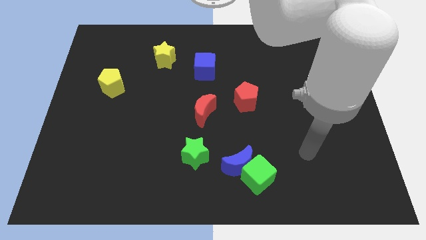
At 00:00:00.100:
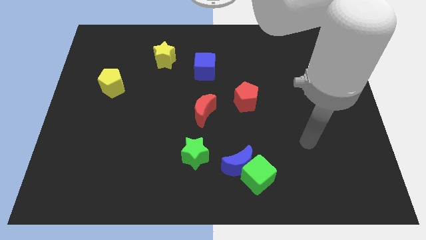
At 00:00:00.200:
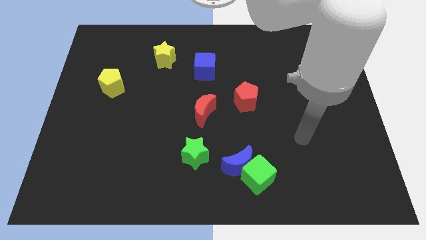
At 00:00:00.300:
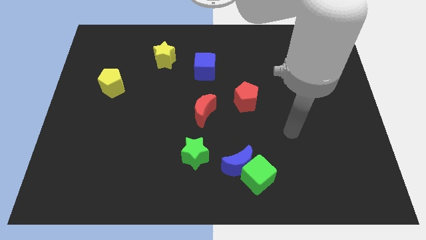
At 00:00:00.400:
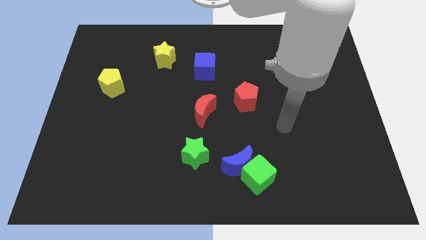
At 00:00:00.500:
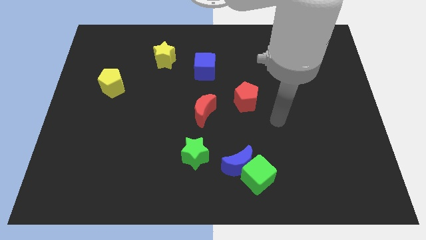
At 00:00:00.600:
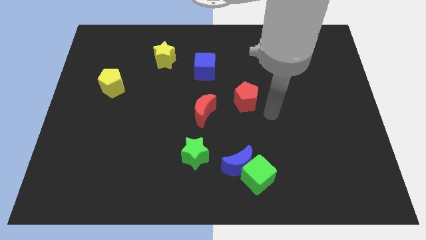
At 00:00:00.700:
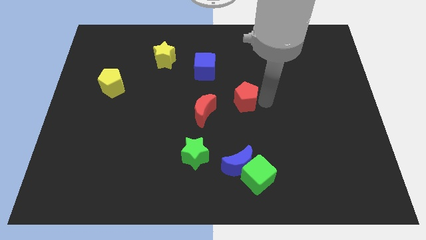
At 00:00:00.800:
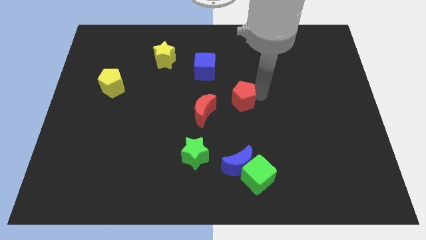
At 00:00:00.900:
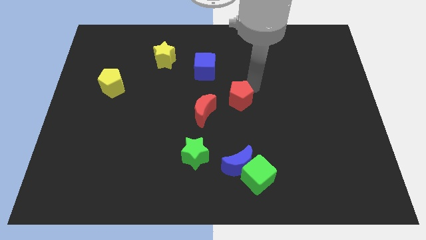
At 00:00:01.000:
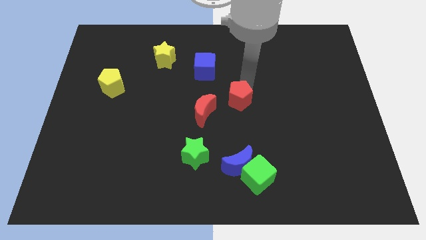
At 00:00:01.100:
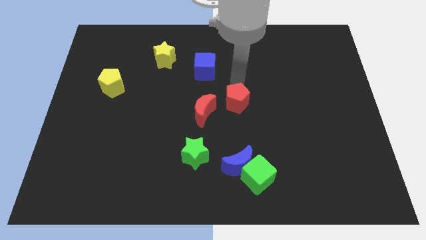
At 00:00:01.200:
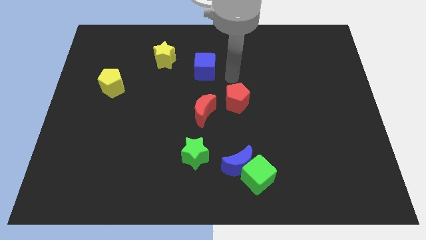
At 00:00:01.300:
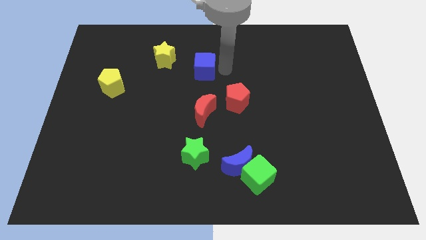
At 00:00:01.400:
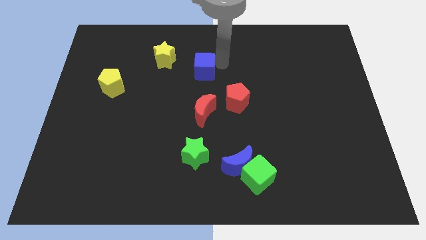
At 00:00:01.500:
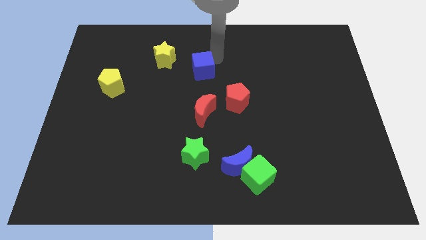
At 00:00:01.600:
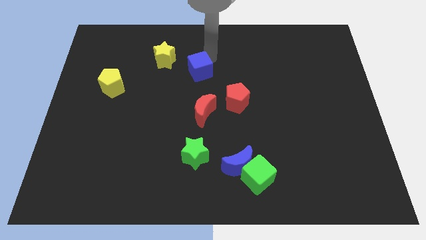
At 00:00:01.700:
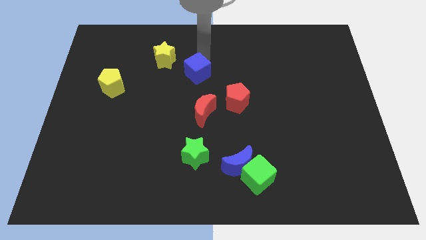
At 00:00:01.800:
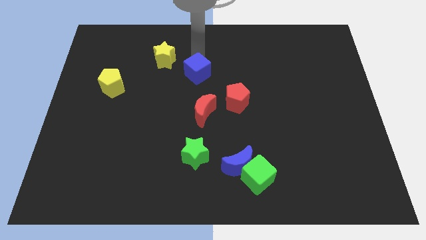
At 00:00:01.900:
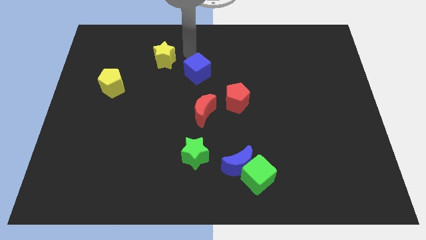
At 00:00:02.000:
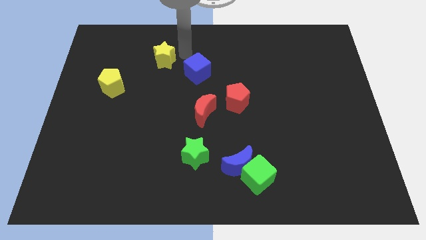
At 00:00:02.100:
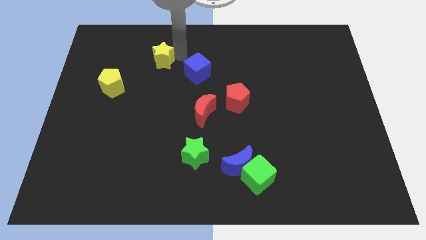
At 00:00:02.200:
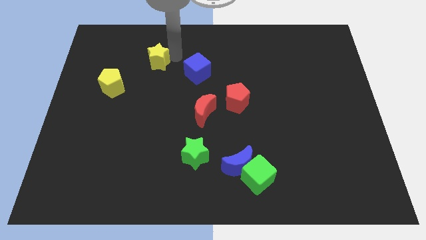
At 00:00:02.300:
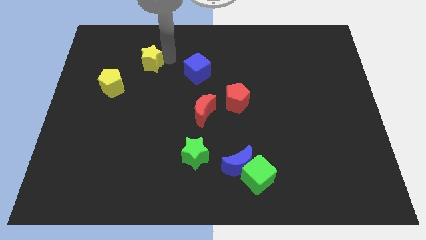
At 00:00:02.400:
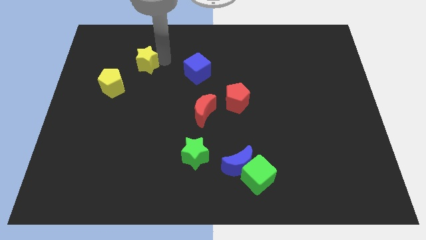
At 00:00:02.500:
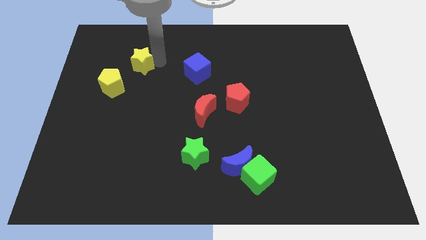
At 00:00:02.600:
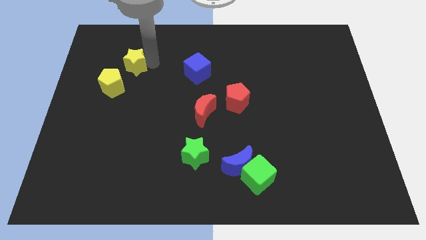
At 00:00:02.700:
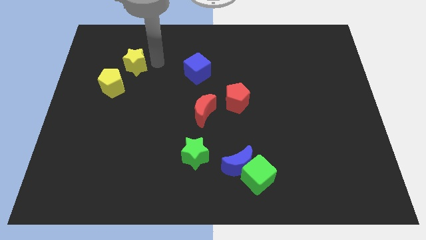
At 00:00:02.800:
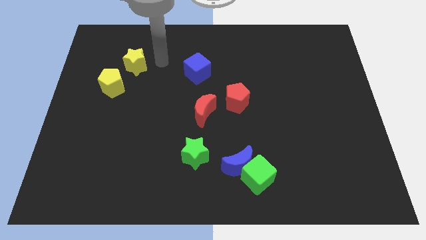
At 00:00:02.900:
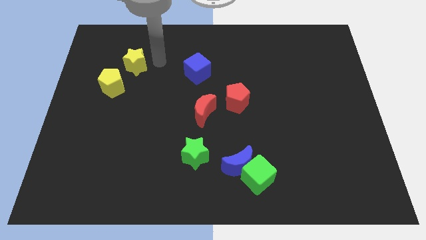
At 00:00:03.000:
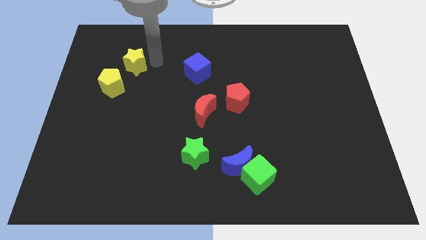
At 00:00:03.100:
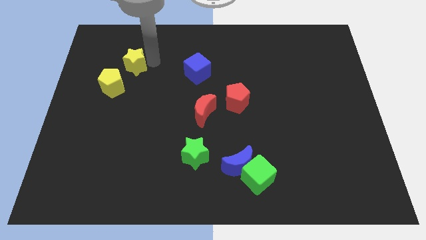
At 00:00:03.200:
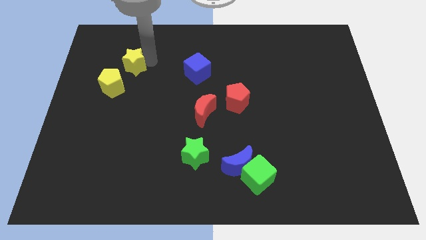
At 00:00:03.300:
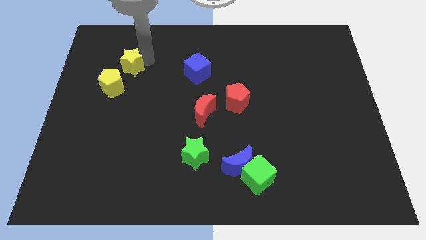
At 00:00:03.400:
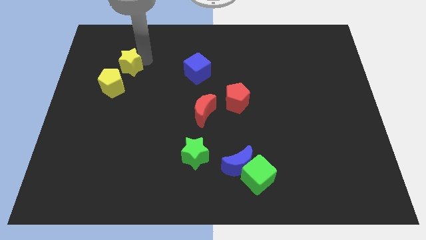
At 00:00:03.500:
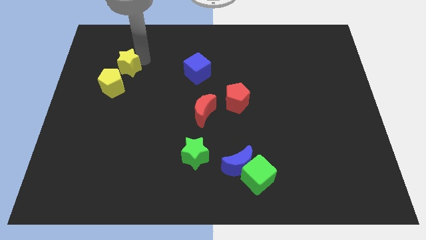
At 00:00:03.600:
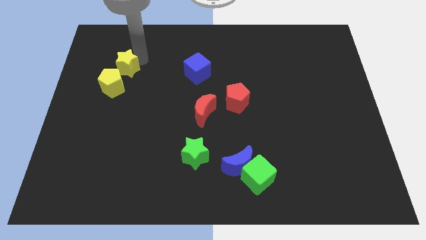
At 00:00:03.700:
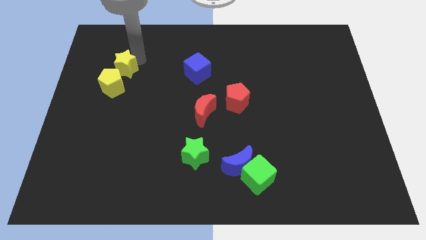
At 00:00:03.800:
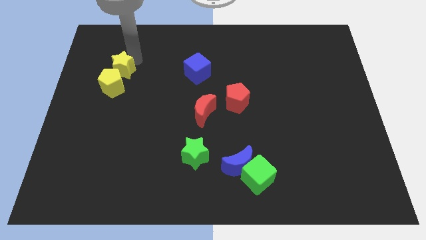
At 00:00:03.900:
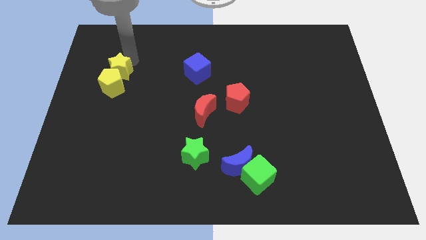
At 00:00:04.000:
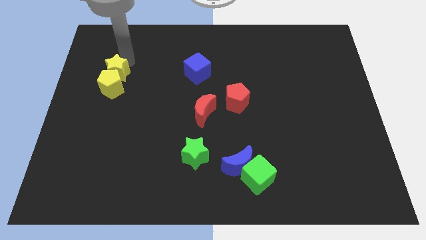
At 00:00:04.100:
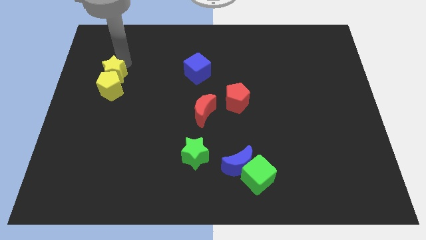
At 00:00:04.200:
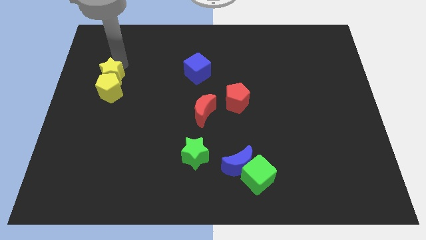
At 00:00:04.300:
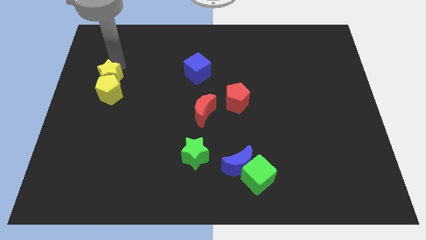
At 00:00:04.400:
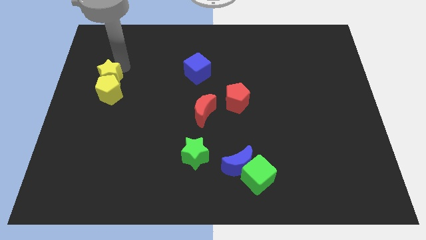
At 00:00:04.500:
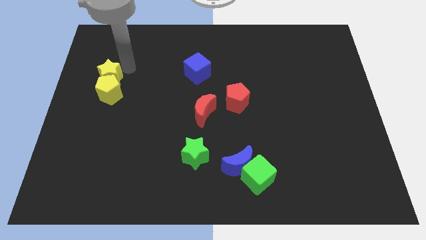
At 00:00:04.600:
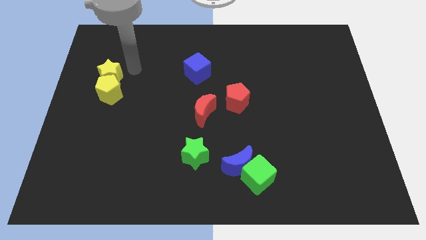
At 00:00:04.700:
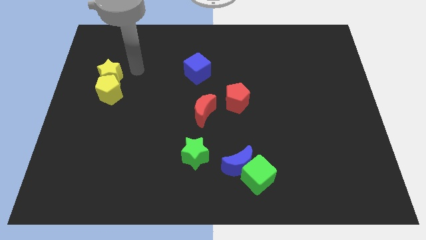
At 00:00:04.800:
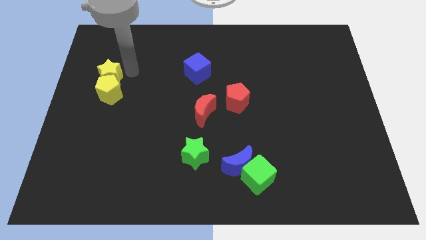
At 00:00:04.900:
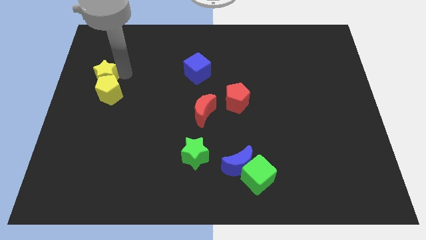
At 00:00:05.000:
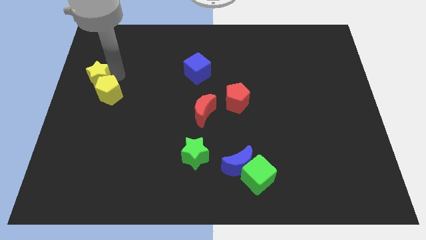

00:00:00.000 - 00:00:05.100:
put the yellow star to the left side of the board

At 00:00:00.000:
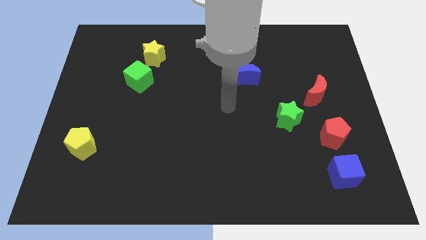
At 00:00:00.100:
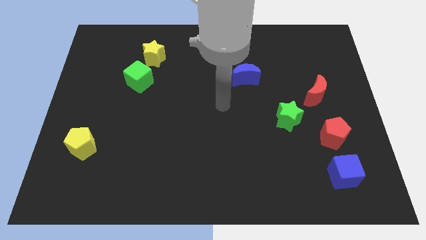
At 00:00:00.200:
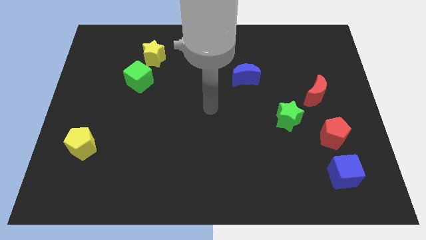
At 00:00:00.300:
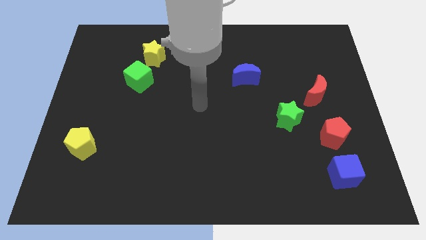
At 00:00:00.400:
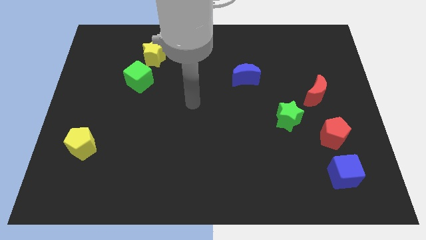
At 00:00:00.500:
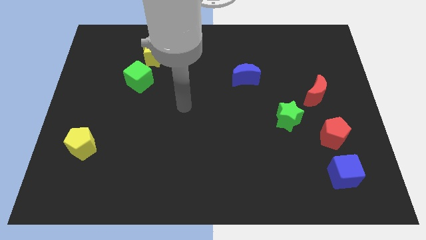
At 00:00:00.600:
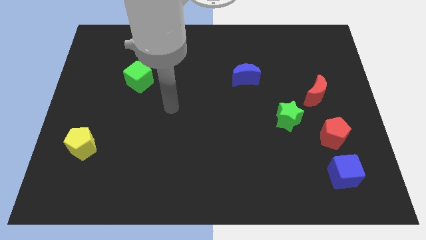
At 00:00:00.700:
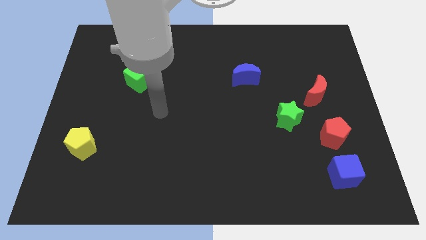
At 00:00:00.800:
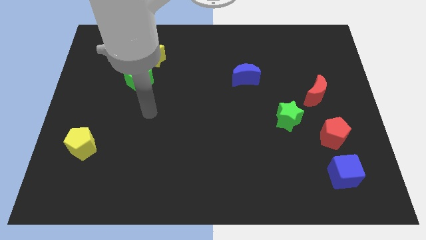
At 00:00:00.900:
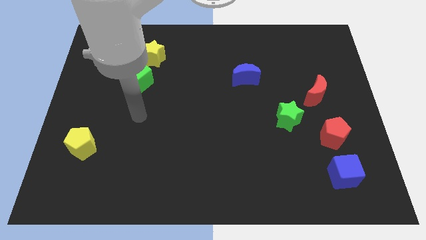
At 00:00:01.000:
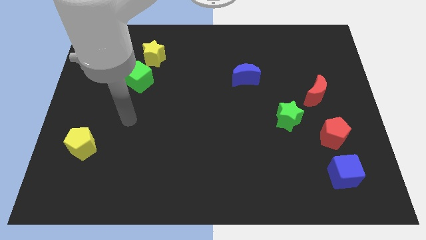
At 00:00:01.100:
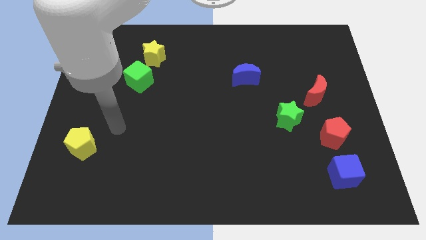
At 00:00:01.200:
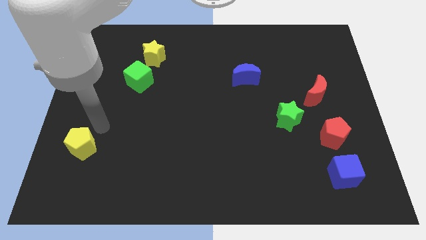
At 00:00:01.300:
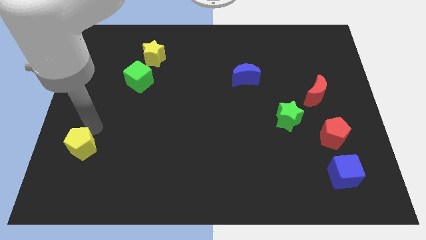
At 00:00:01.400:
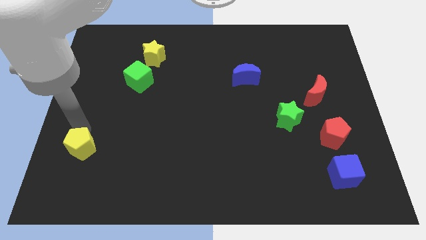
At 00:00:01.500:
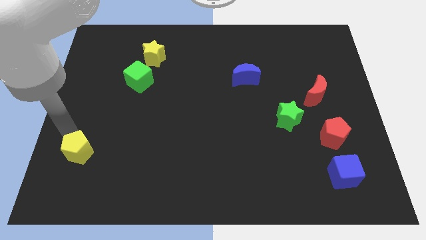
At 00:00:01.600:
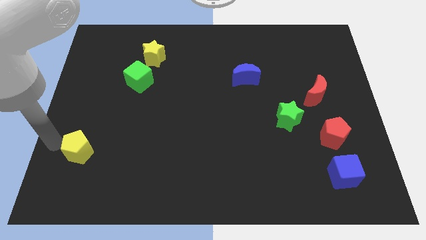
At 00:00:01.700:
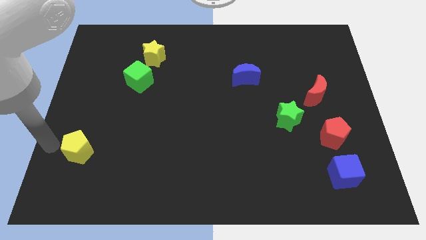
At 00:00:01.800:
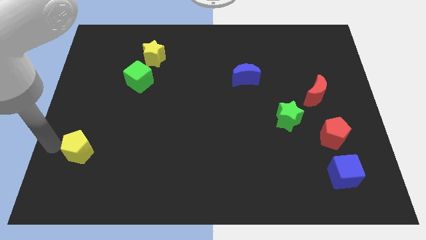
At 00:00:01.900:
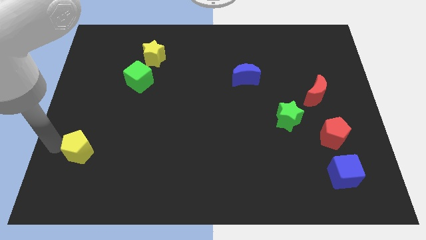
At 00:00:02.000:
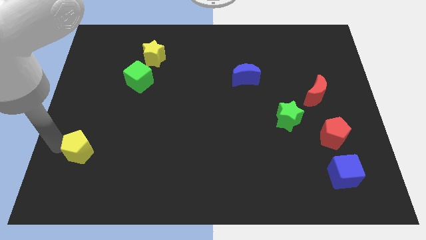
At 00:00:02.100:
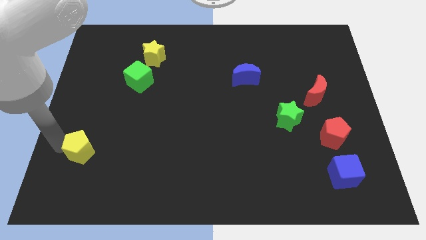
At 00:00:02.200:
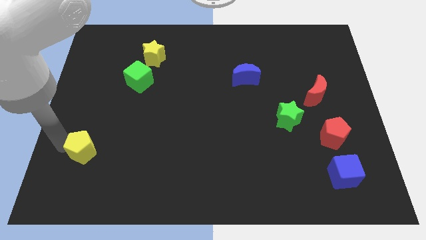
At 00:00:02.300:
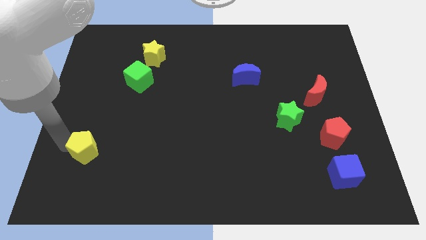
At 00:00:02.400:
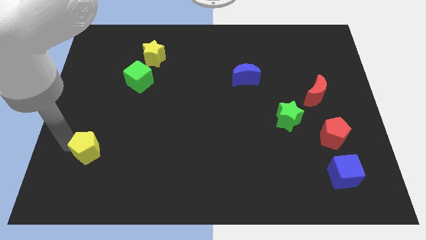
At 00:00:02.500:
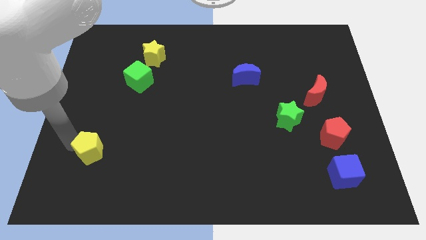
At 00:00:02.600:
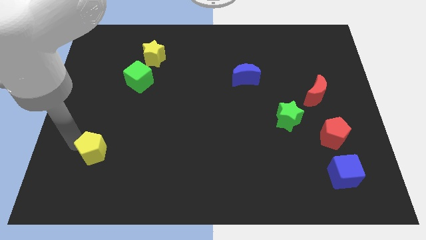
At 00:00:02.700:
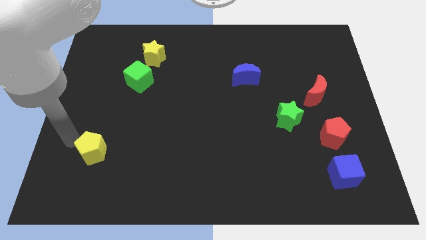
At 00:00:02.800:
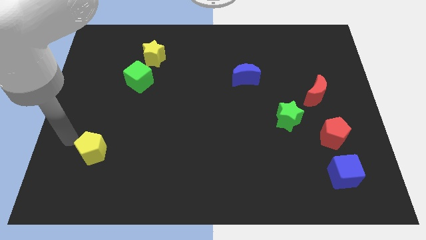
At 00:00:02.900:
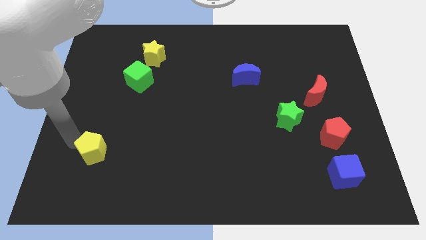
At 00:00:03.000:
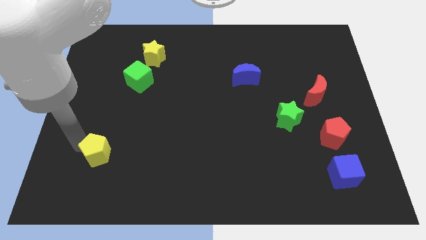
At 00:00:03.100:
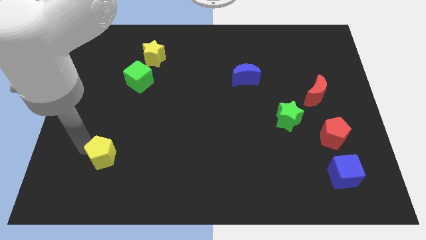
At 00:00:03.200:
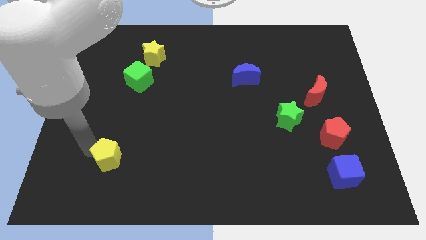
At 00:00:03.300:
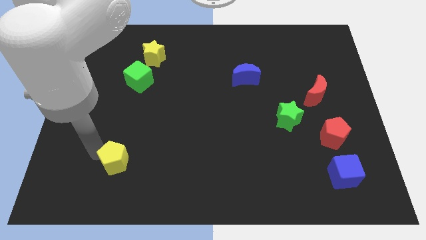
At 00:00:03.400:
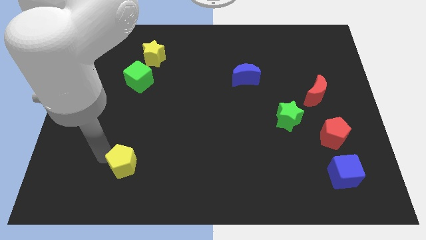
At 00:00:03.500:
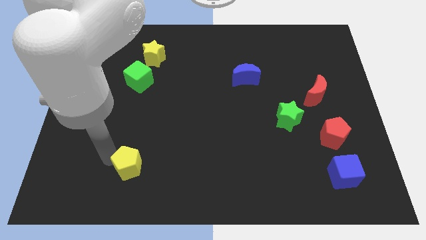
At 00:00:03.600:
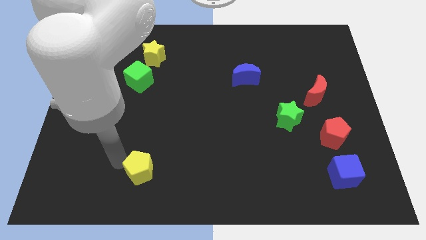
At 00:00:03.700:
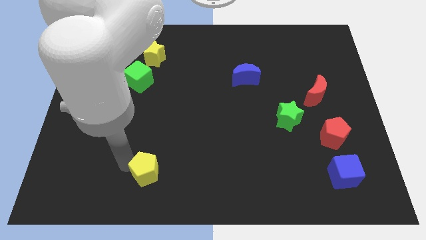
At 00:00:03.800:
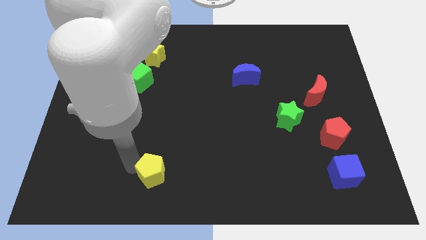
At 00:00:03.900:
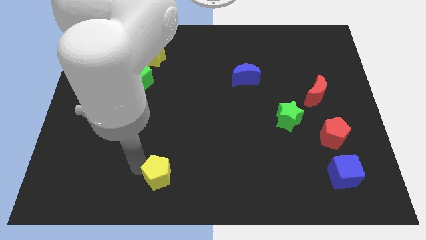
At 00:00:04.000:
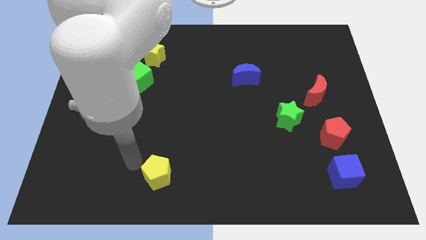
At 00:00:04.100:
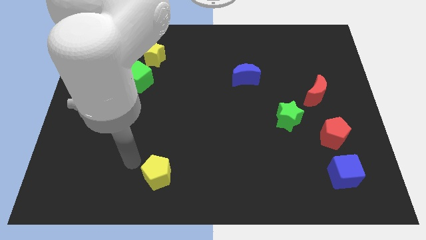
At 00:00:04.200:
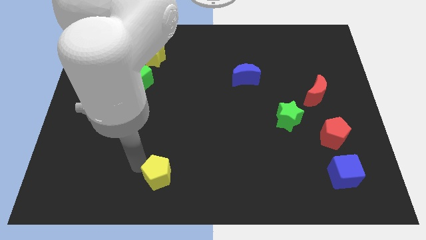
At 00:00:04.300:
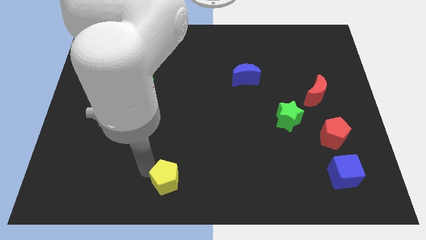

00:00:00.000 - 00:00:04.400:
put the yellow pentagon to the bottom
